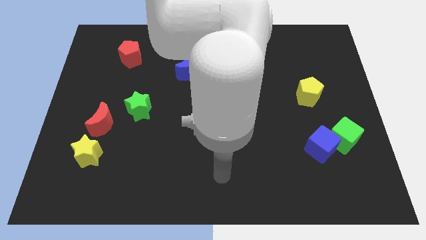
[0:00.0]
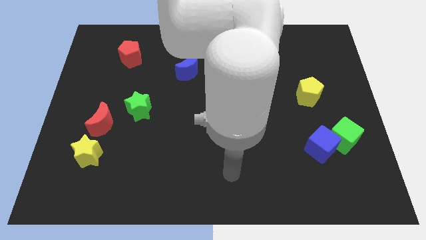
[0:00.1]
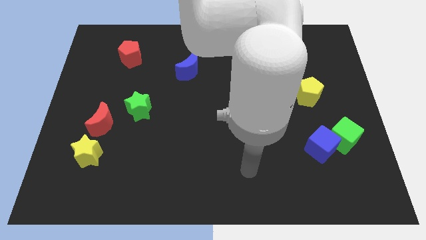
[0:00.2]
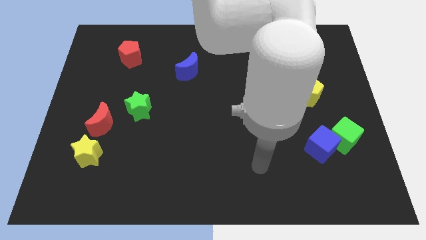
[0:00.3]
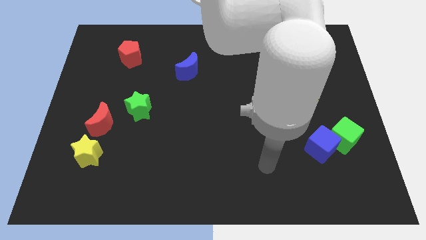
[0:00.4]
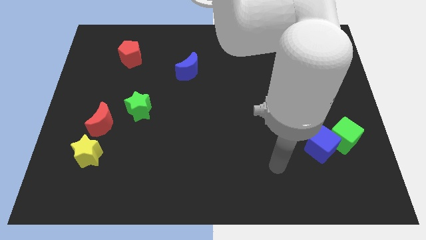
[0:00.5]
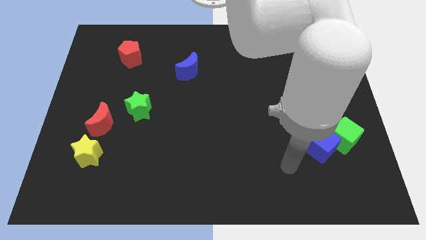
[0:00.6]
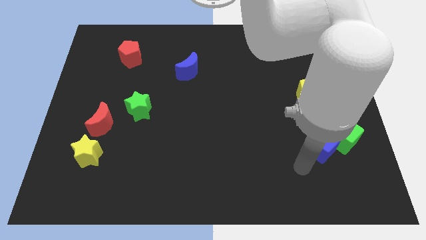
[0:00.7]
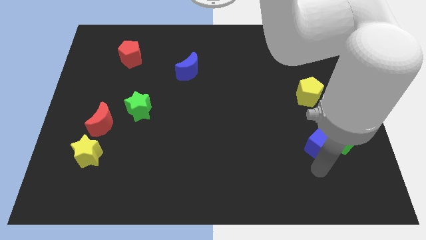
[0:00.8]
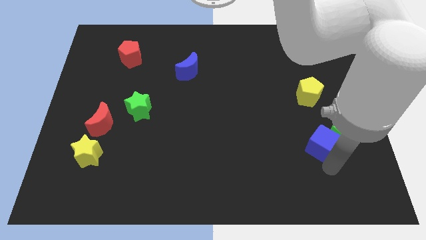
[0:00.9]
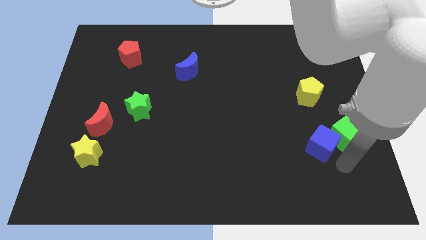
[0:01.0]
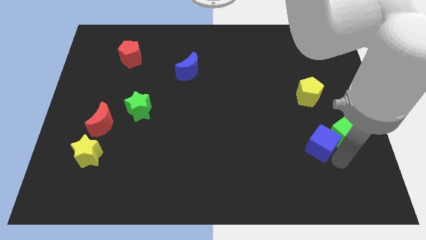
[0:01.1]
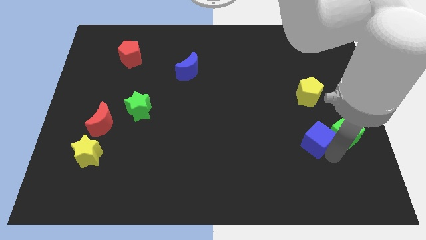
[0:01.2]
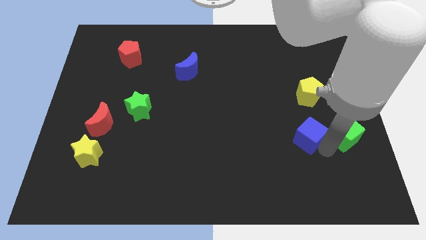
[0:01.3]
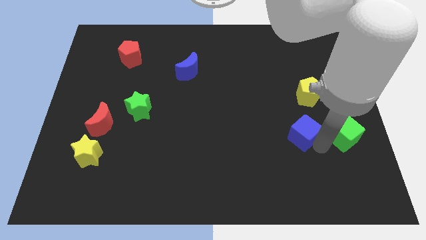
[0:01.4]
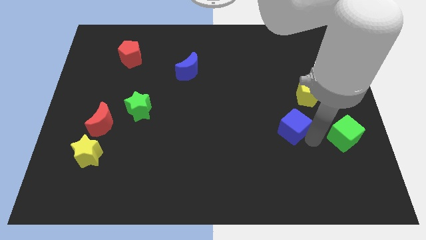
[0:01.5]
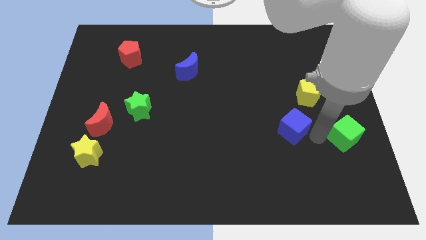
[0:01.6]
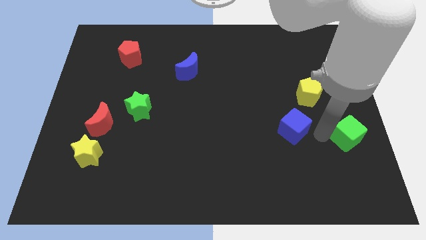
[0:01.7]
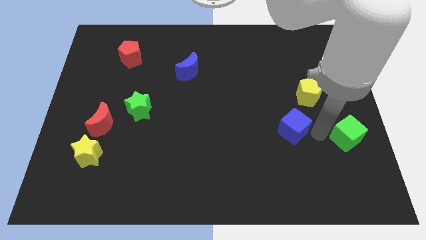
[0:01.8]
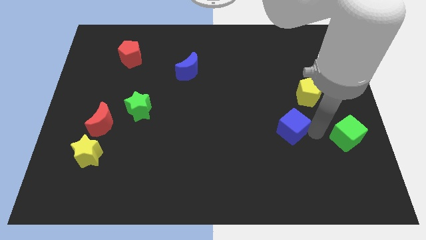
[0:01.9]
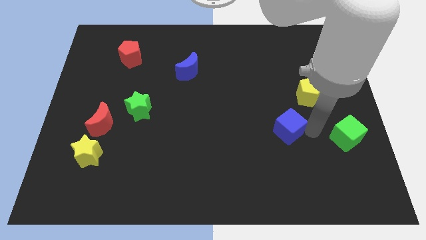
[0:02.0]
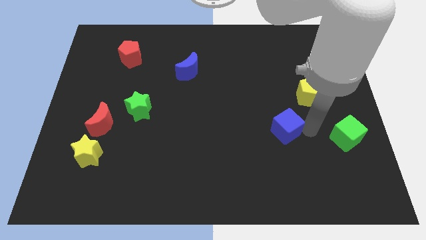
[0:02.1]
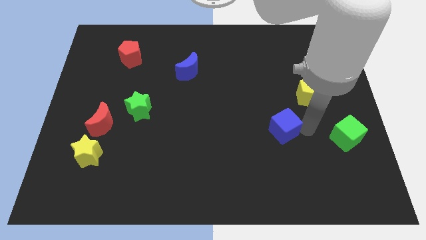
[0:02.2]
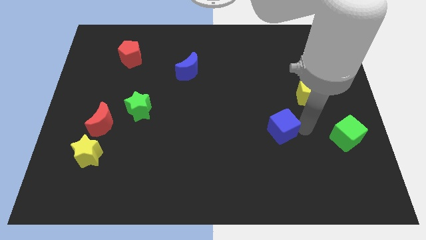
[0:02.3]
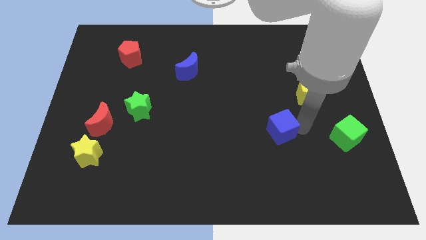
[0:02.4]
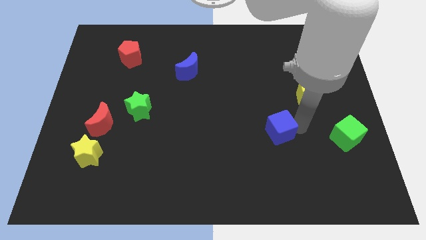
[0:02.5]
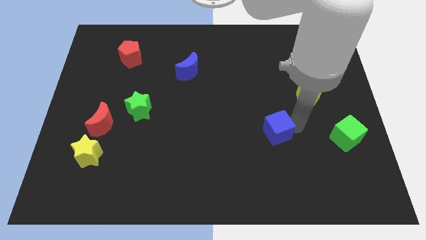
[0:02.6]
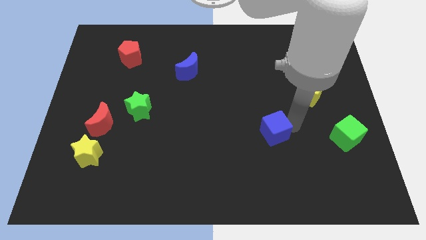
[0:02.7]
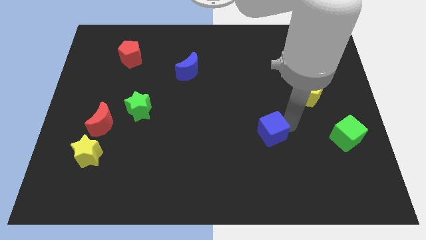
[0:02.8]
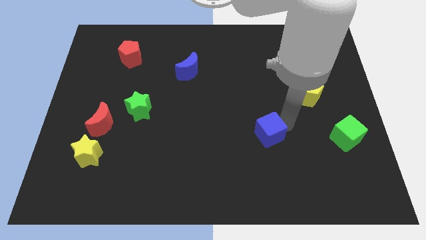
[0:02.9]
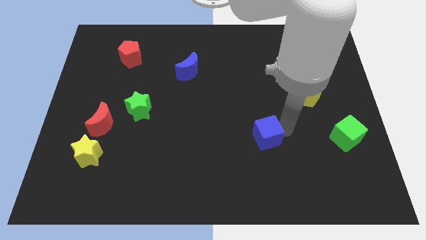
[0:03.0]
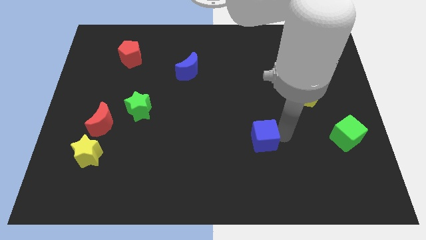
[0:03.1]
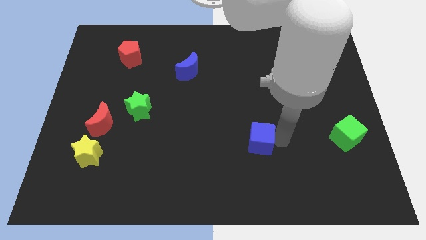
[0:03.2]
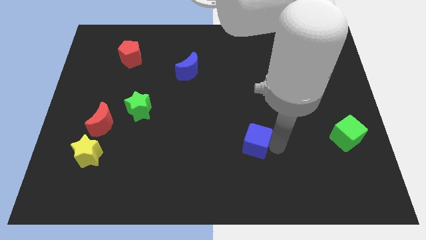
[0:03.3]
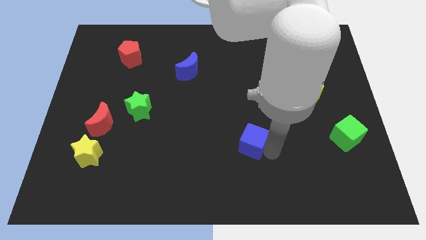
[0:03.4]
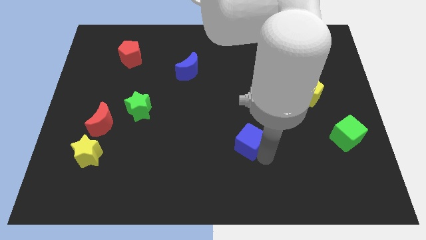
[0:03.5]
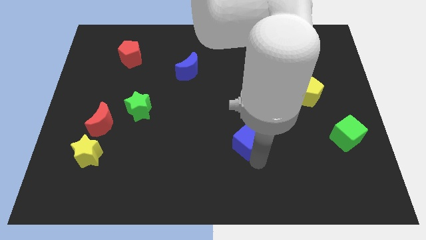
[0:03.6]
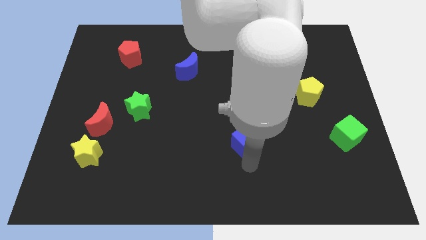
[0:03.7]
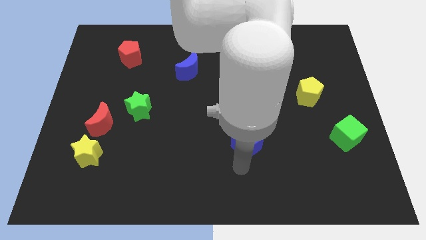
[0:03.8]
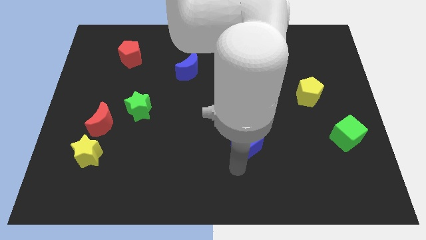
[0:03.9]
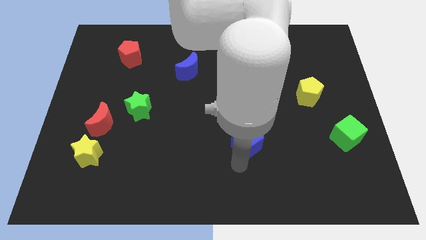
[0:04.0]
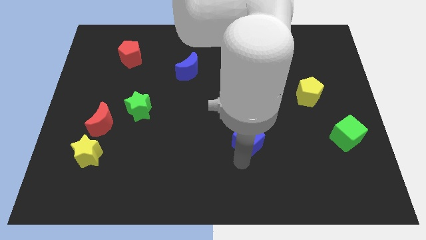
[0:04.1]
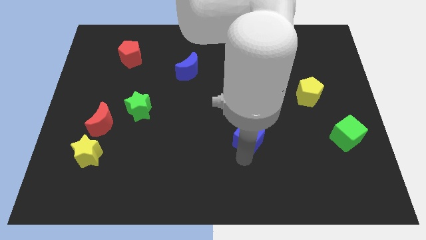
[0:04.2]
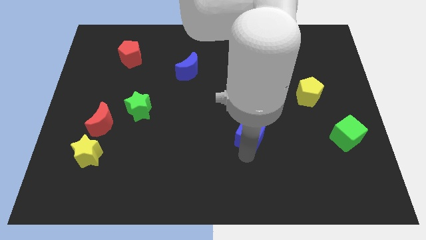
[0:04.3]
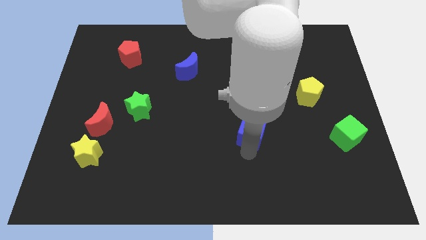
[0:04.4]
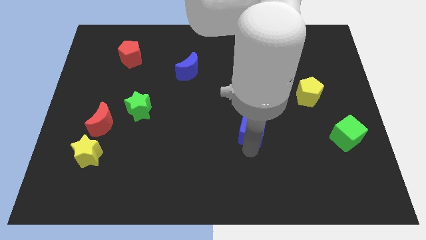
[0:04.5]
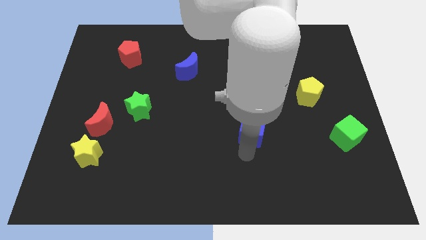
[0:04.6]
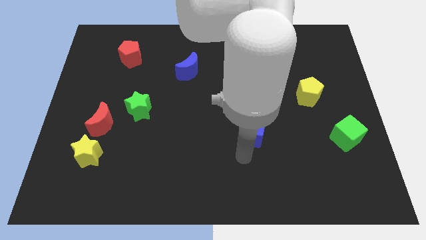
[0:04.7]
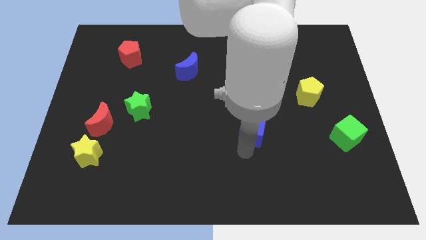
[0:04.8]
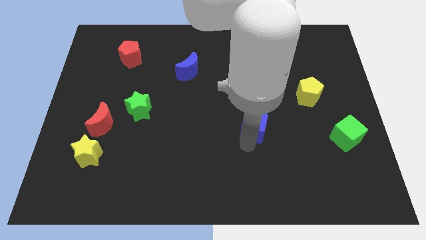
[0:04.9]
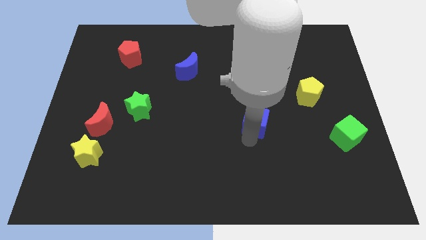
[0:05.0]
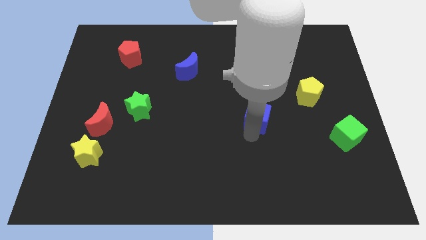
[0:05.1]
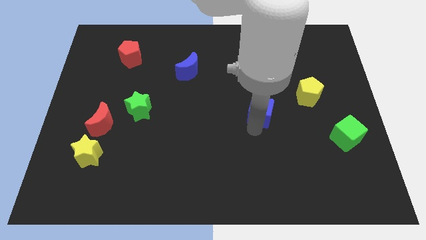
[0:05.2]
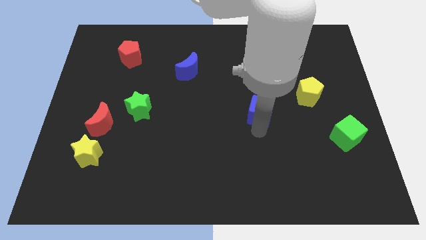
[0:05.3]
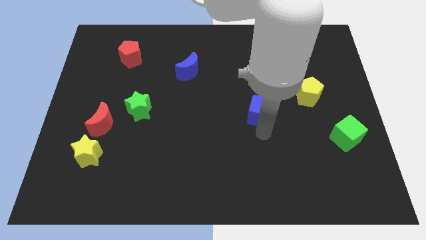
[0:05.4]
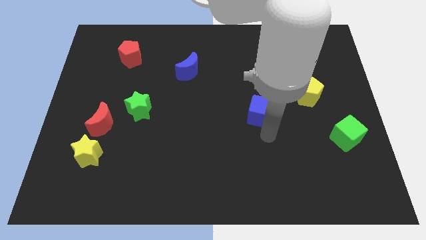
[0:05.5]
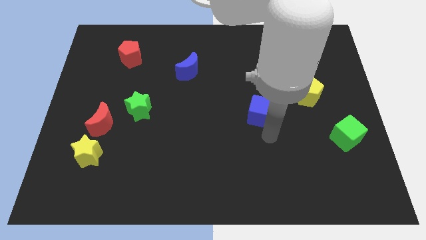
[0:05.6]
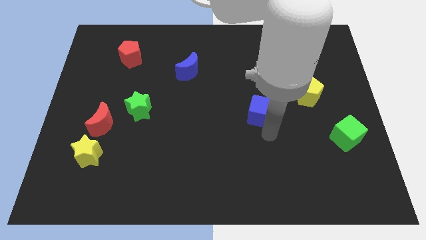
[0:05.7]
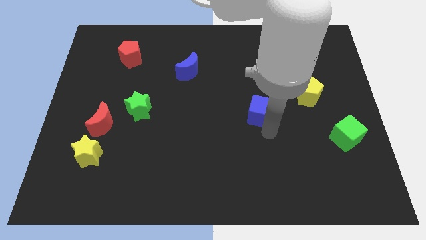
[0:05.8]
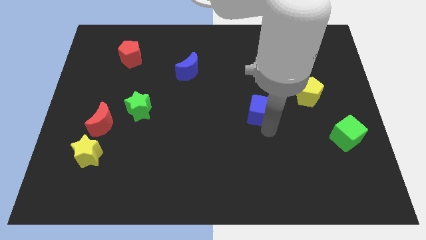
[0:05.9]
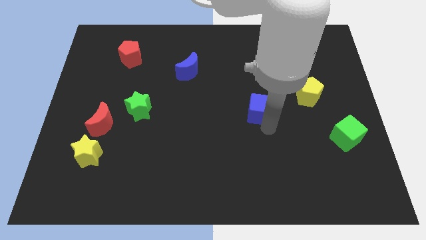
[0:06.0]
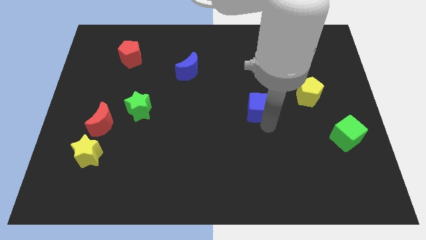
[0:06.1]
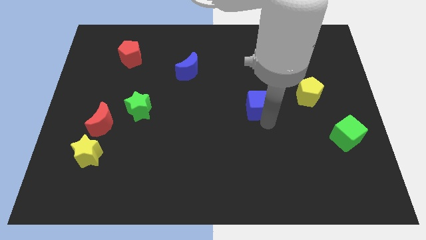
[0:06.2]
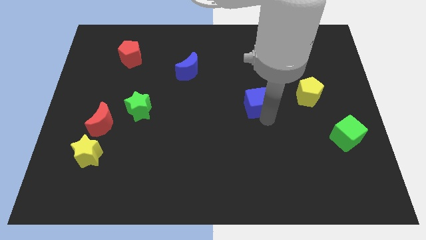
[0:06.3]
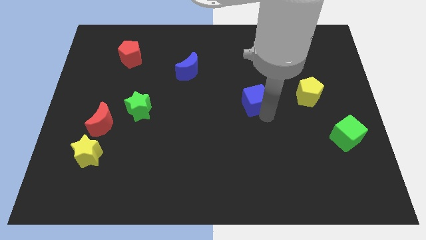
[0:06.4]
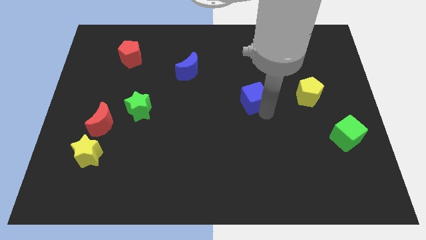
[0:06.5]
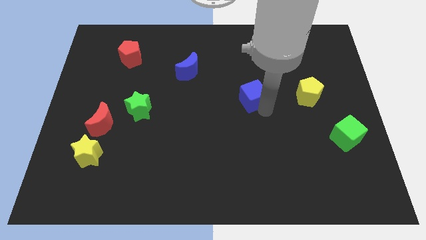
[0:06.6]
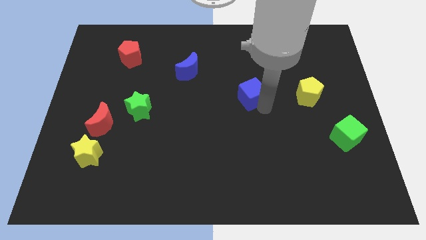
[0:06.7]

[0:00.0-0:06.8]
push the blue cube up and to the left diagonally

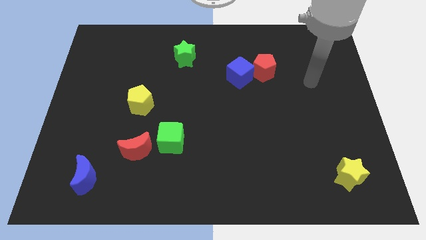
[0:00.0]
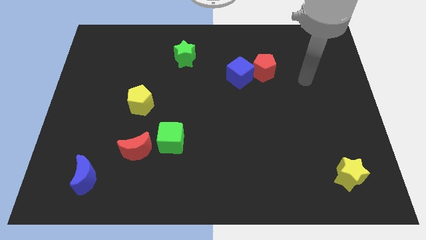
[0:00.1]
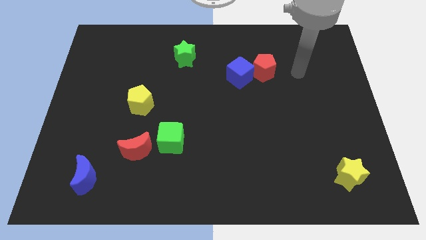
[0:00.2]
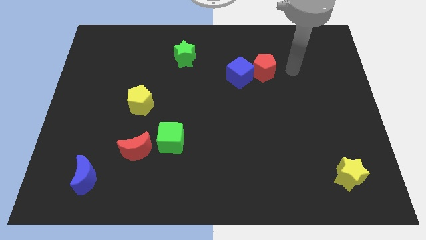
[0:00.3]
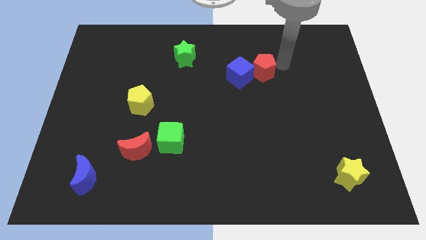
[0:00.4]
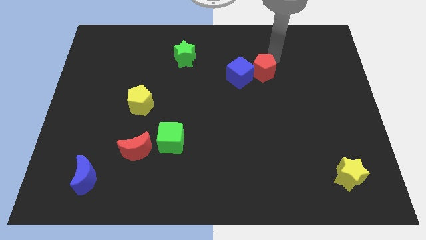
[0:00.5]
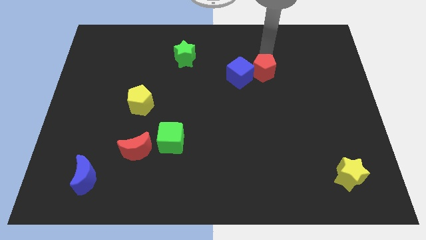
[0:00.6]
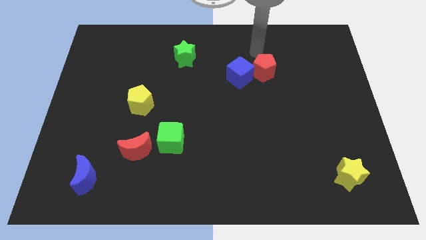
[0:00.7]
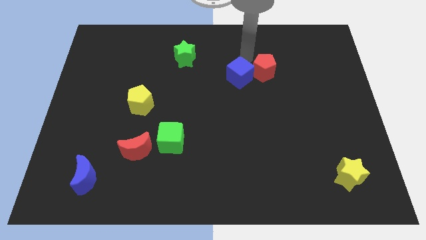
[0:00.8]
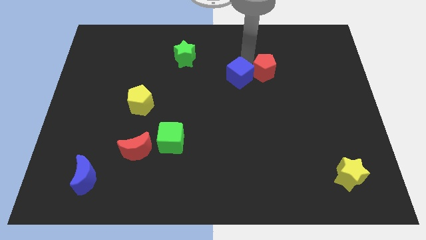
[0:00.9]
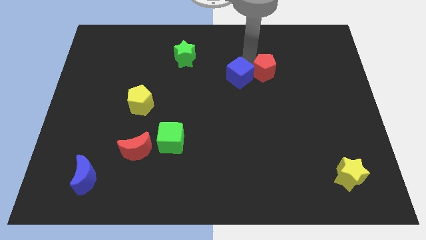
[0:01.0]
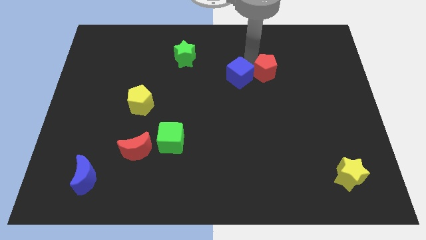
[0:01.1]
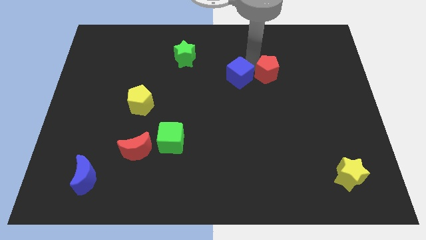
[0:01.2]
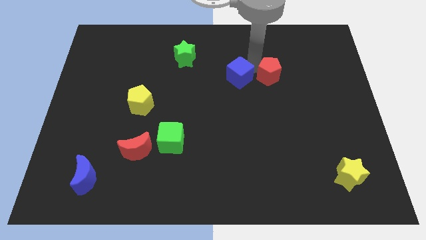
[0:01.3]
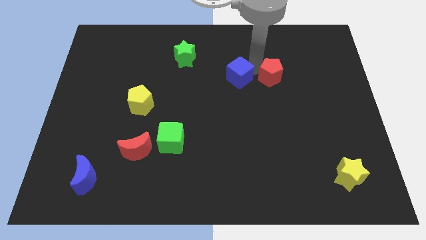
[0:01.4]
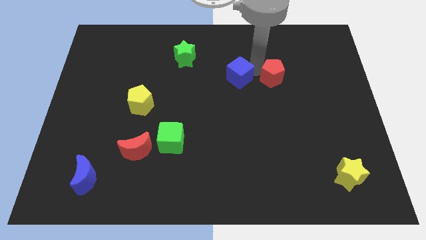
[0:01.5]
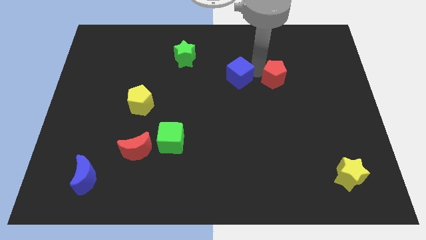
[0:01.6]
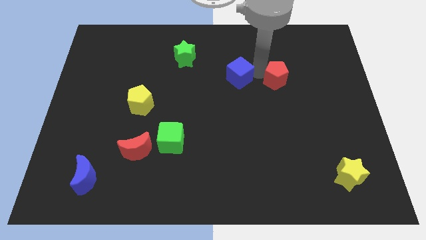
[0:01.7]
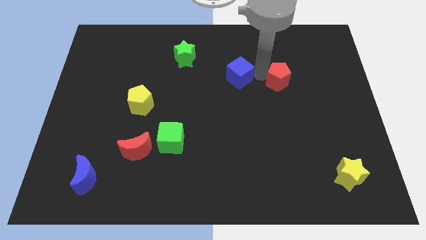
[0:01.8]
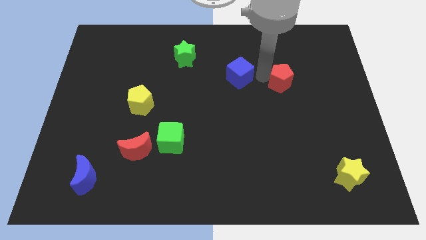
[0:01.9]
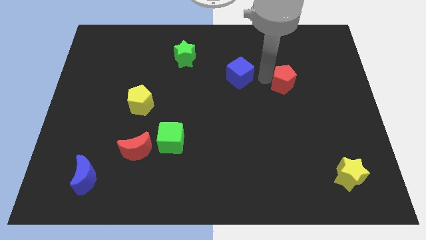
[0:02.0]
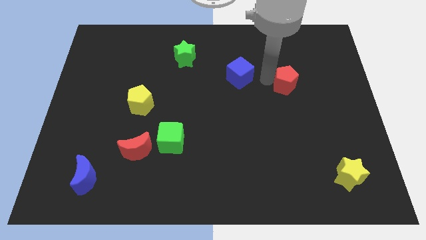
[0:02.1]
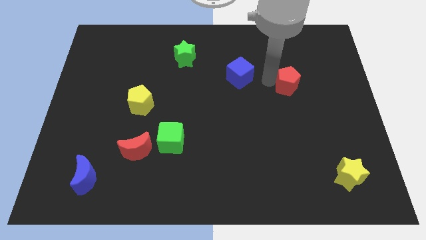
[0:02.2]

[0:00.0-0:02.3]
slightly move the red pentagon downwards and then to the right
